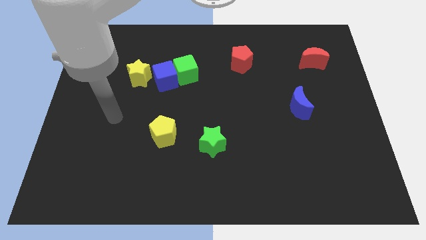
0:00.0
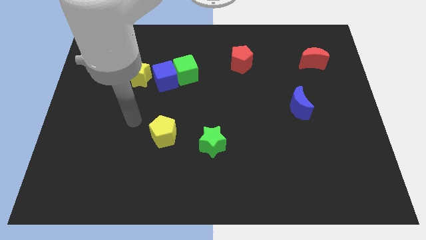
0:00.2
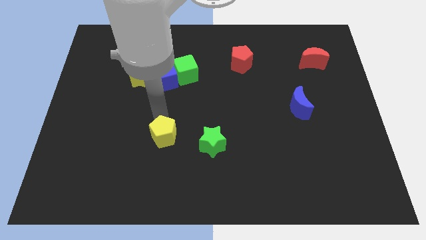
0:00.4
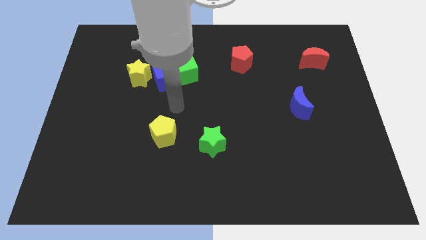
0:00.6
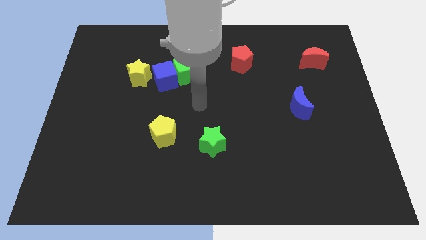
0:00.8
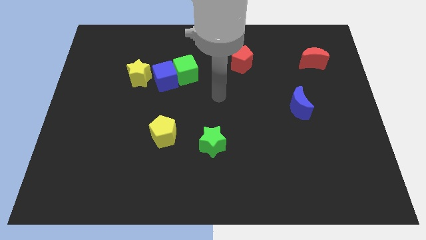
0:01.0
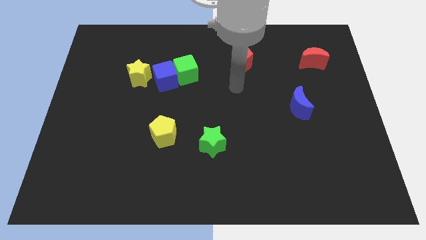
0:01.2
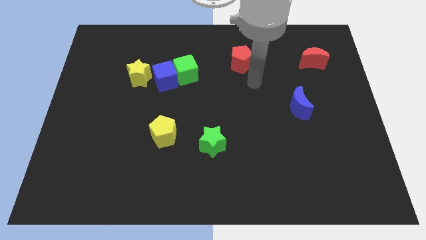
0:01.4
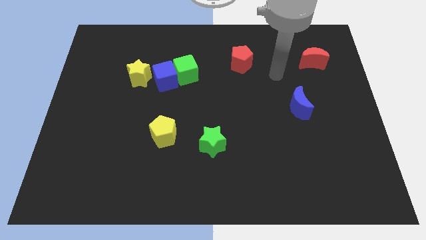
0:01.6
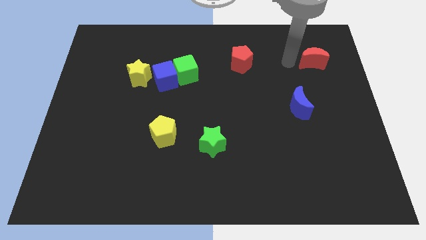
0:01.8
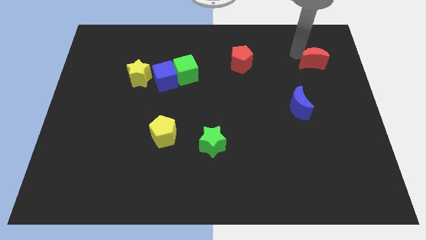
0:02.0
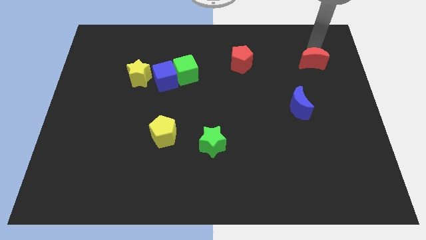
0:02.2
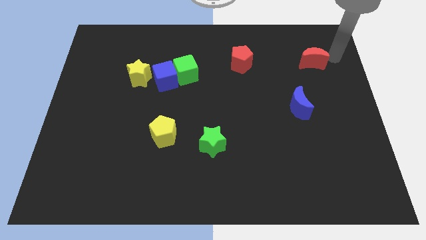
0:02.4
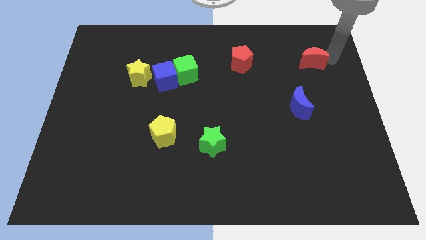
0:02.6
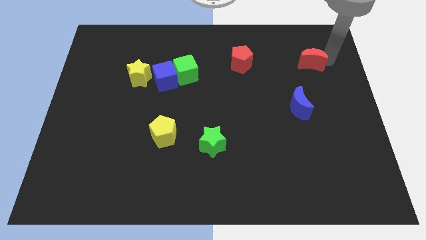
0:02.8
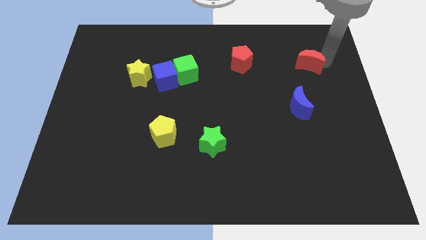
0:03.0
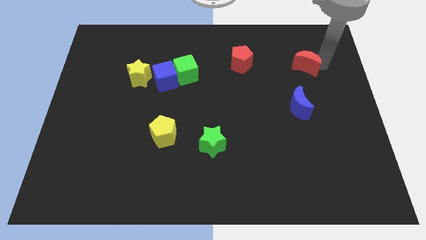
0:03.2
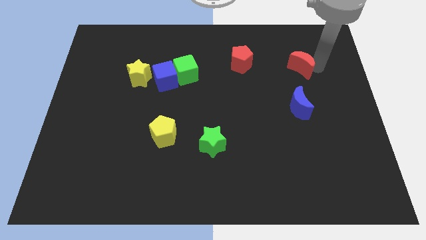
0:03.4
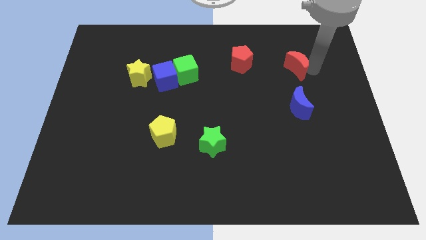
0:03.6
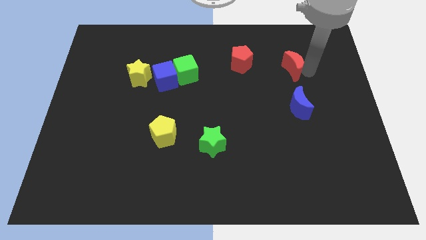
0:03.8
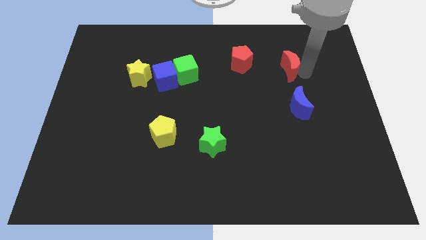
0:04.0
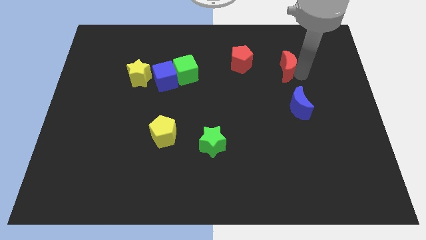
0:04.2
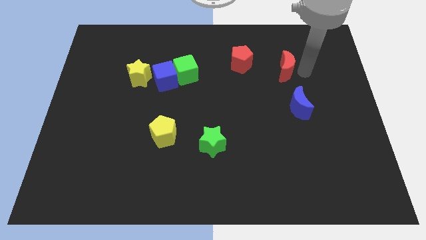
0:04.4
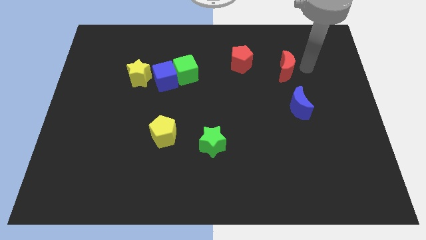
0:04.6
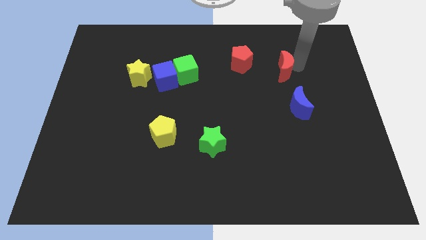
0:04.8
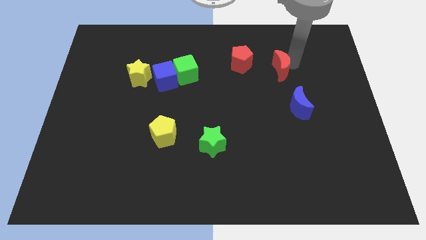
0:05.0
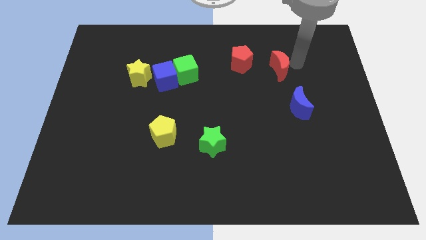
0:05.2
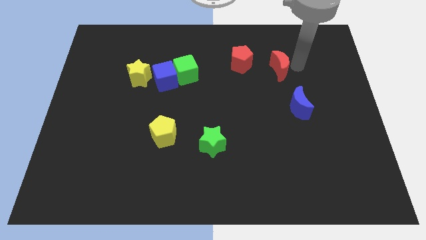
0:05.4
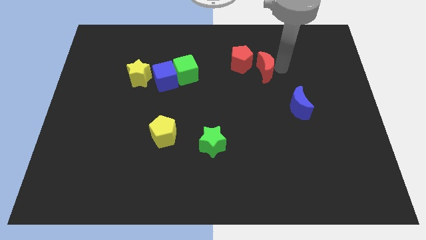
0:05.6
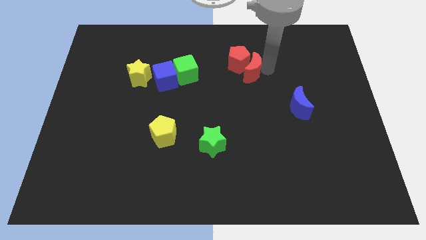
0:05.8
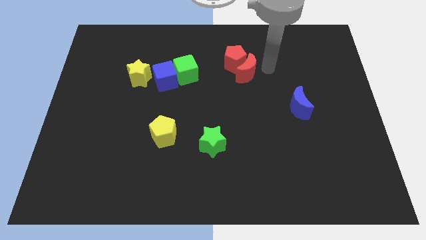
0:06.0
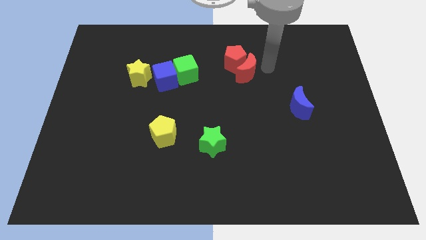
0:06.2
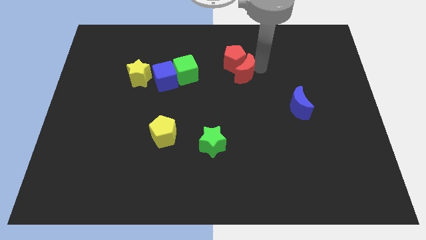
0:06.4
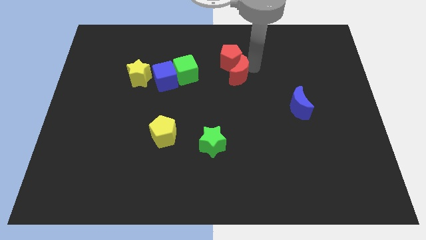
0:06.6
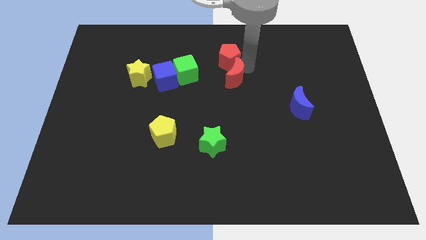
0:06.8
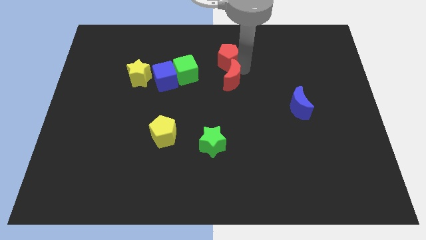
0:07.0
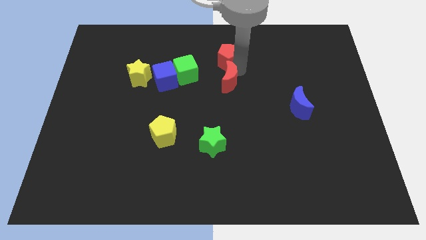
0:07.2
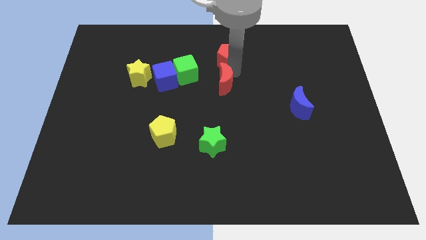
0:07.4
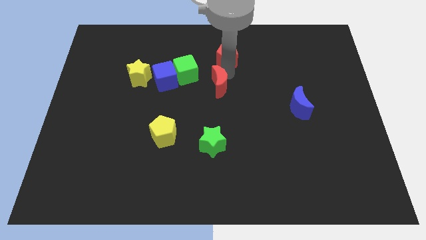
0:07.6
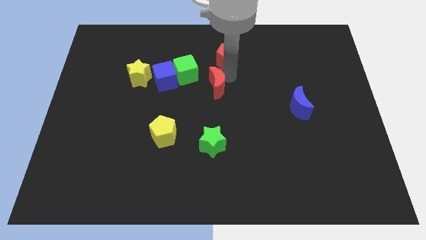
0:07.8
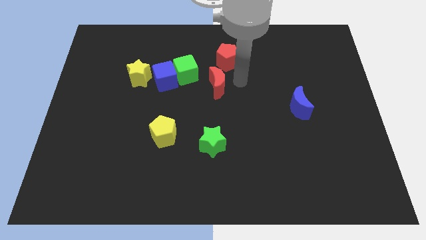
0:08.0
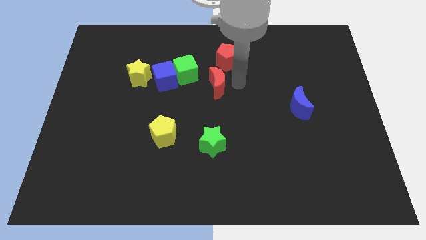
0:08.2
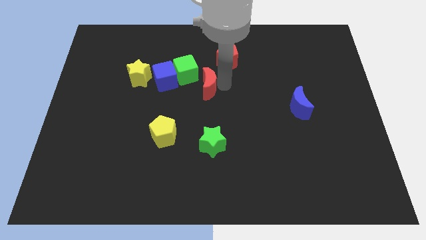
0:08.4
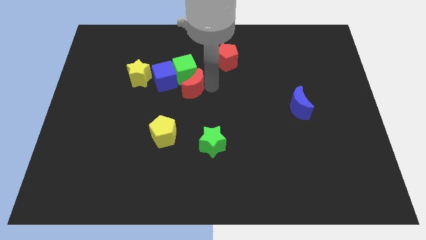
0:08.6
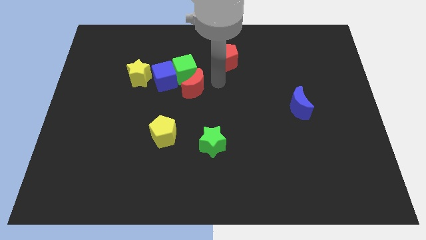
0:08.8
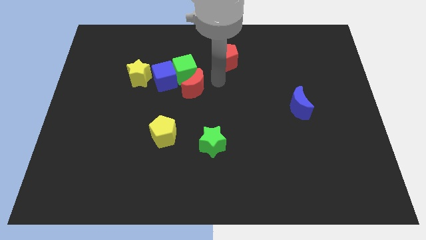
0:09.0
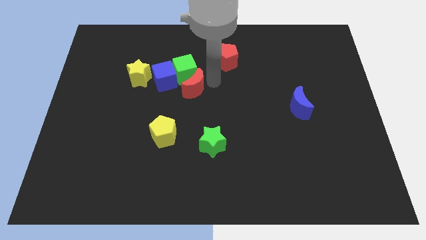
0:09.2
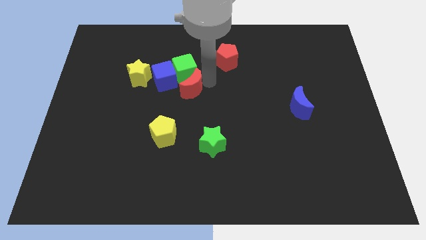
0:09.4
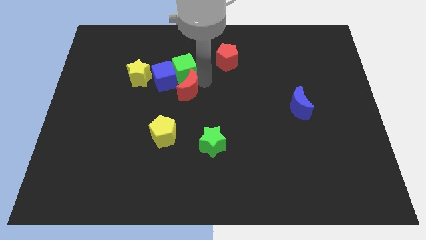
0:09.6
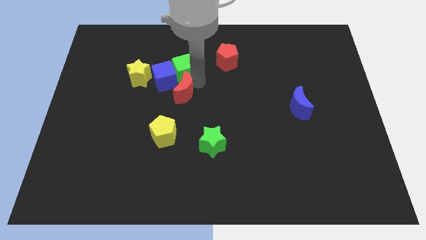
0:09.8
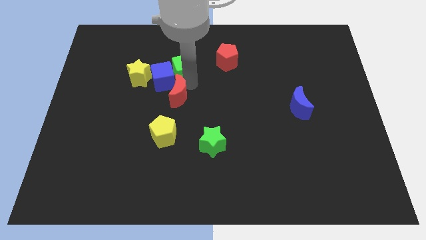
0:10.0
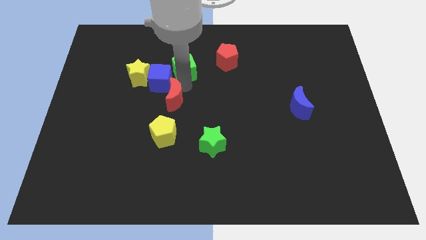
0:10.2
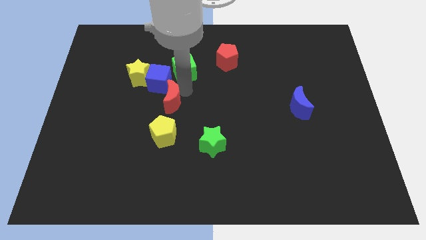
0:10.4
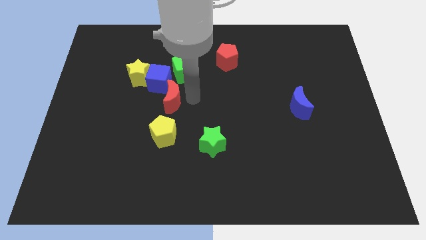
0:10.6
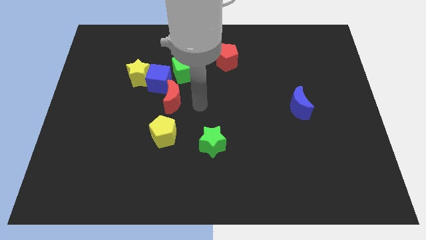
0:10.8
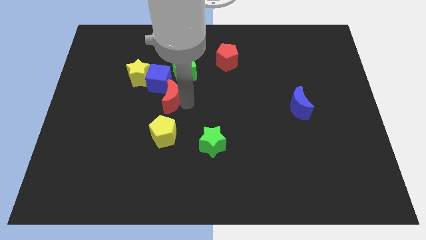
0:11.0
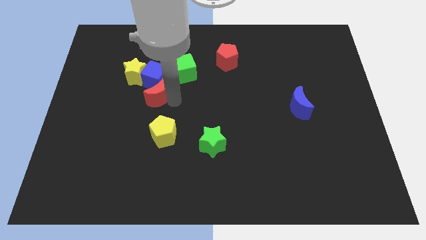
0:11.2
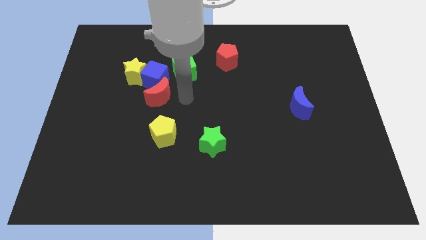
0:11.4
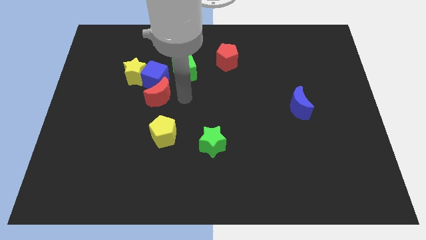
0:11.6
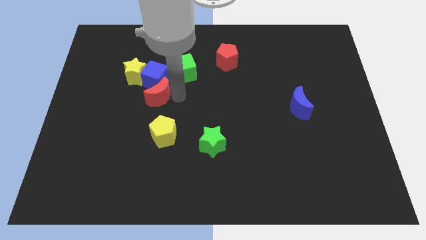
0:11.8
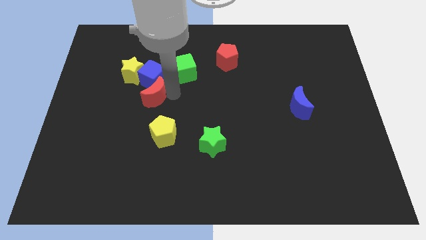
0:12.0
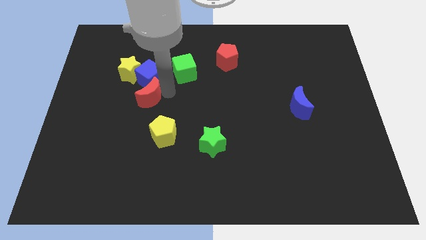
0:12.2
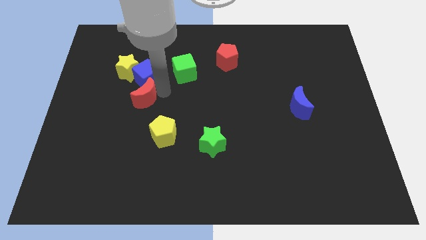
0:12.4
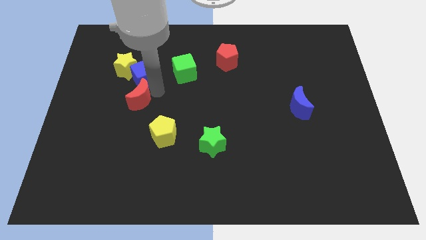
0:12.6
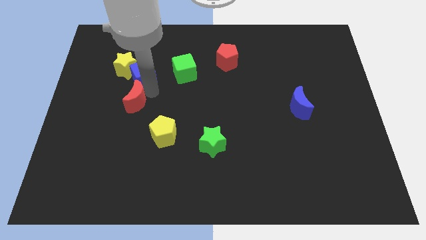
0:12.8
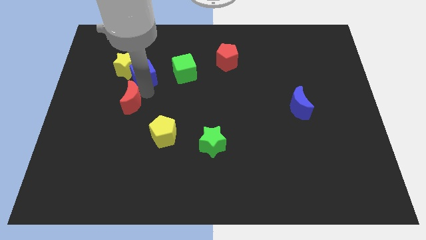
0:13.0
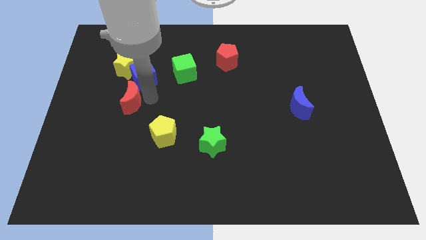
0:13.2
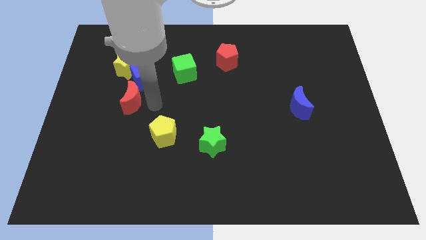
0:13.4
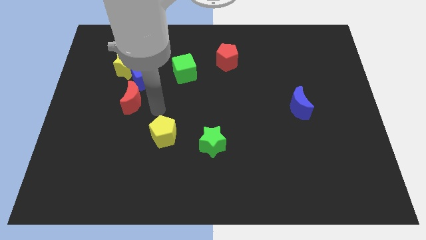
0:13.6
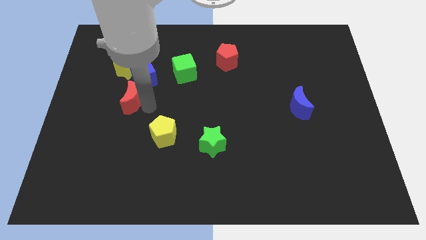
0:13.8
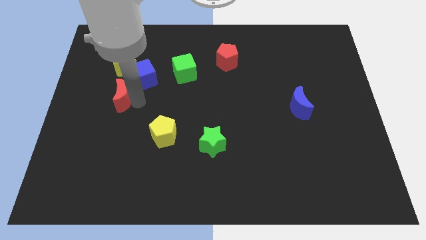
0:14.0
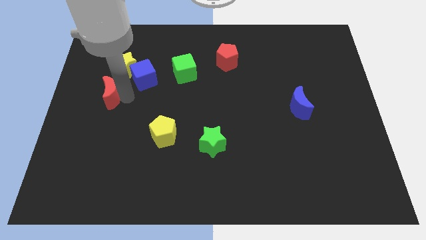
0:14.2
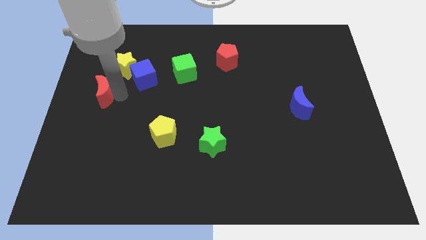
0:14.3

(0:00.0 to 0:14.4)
move the red moon to the left side

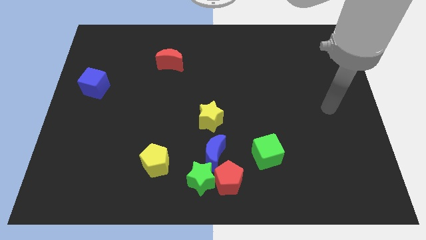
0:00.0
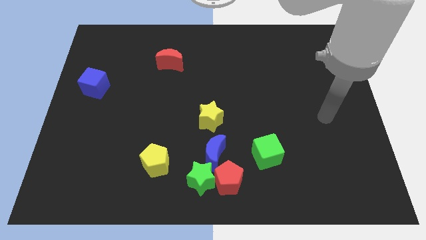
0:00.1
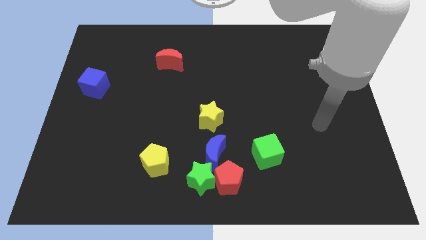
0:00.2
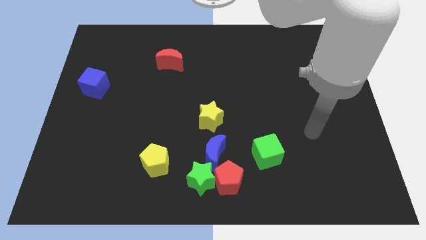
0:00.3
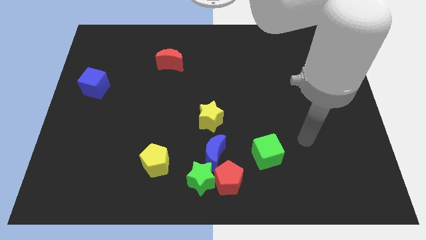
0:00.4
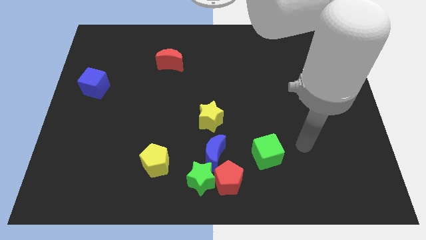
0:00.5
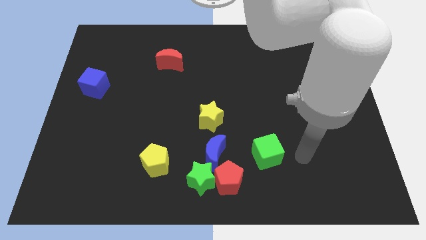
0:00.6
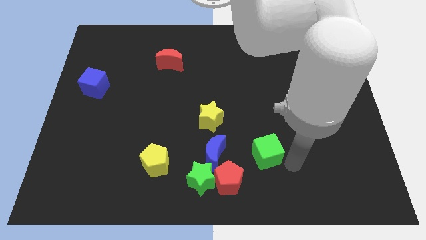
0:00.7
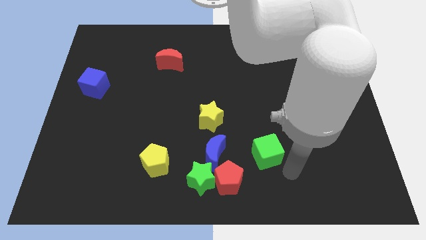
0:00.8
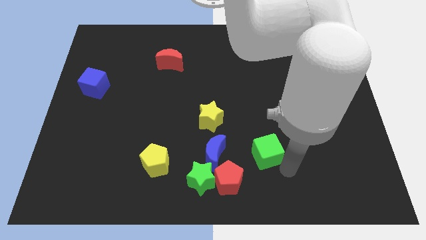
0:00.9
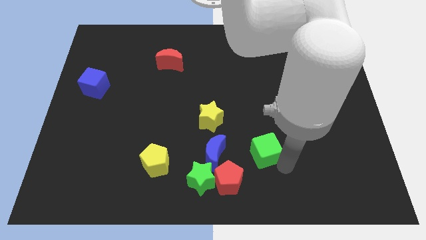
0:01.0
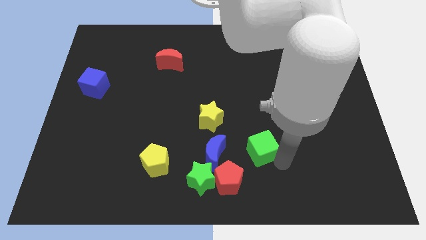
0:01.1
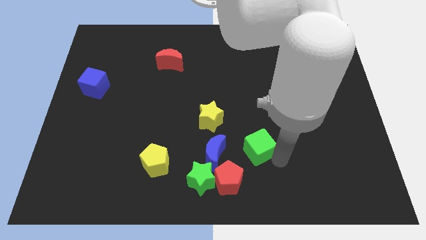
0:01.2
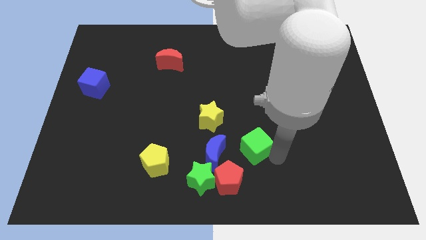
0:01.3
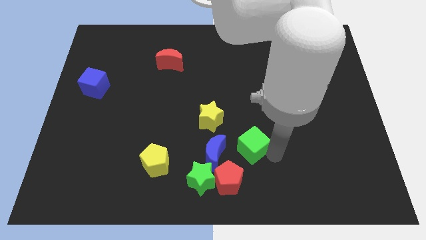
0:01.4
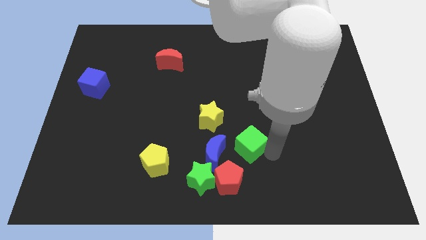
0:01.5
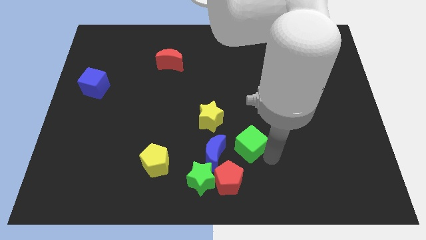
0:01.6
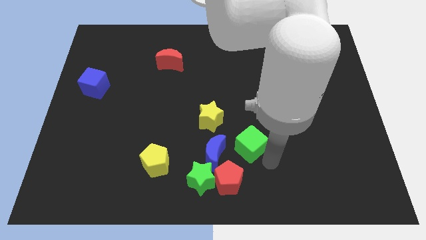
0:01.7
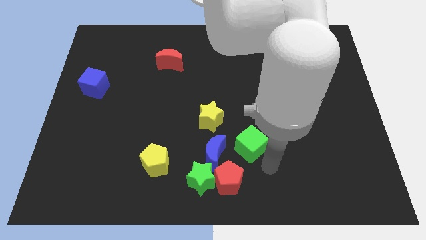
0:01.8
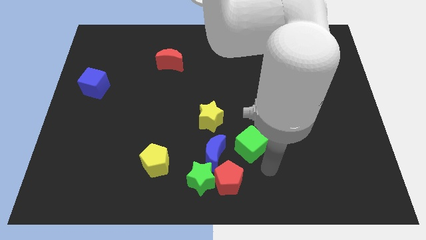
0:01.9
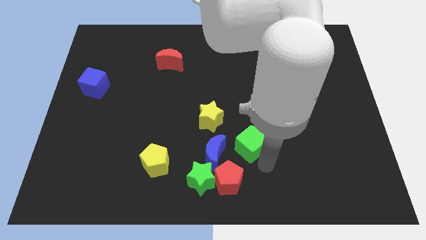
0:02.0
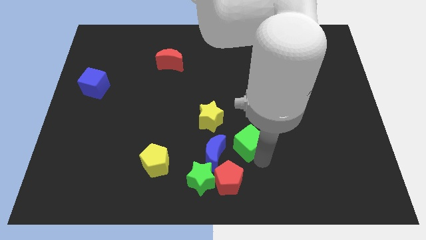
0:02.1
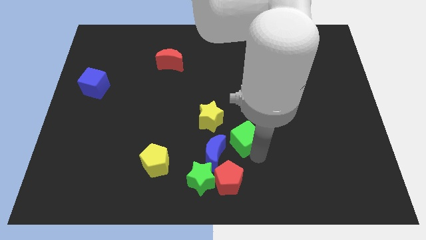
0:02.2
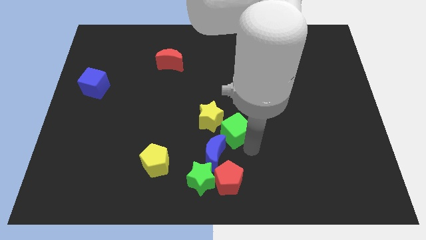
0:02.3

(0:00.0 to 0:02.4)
push the green cube to the center
